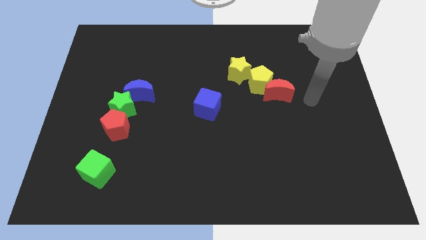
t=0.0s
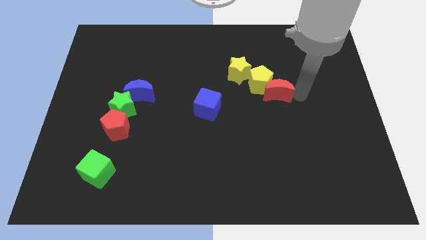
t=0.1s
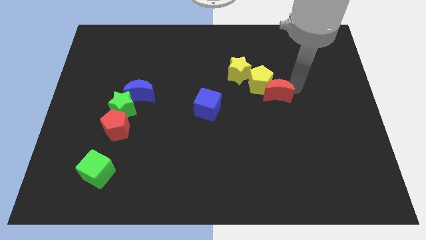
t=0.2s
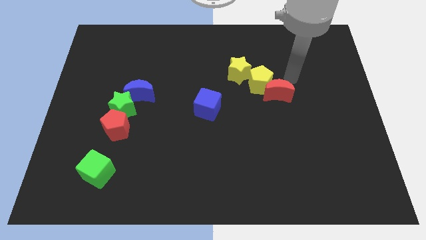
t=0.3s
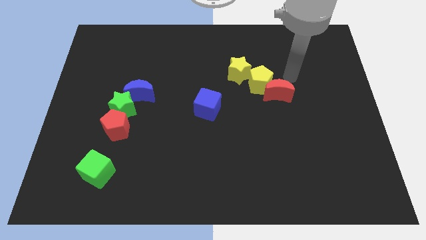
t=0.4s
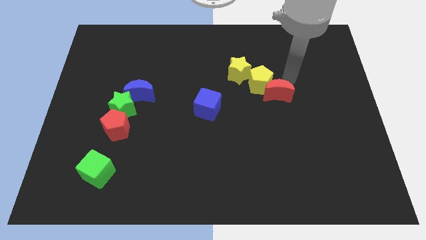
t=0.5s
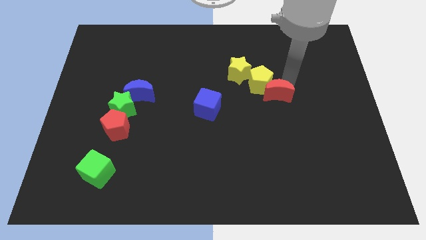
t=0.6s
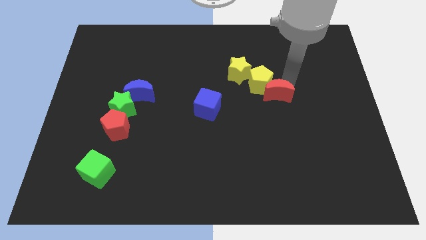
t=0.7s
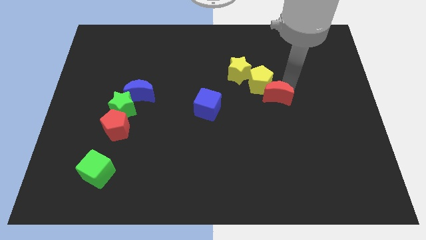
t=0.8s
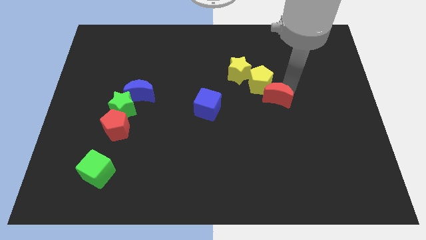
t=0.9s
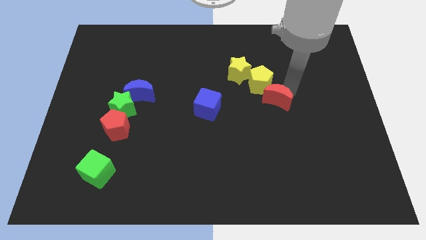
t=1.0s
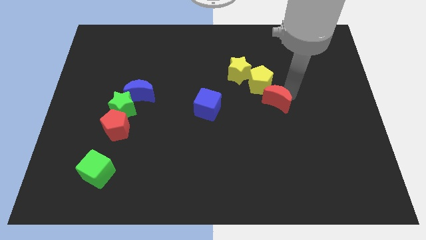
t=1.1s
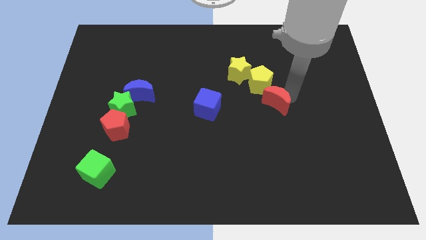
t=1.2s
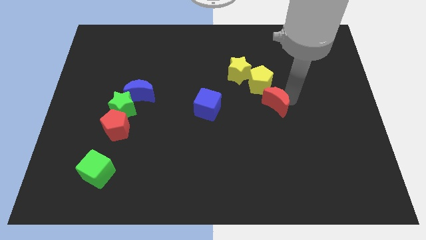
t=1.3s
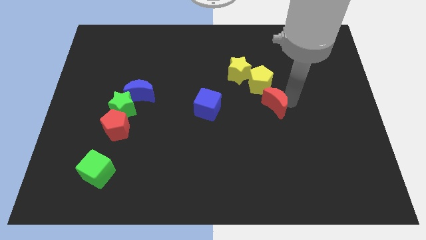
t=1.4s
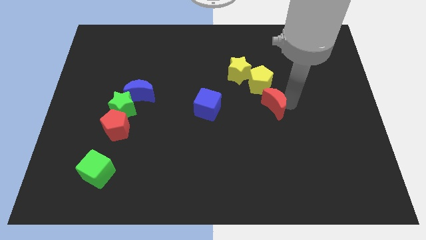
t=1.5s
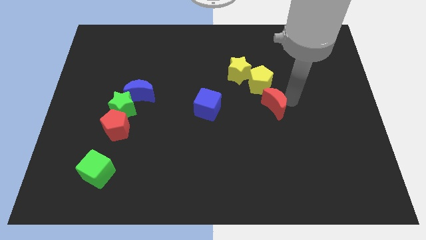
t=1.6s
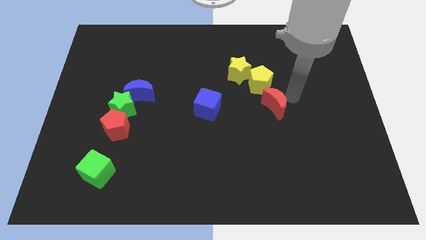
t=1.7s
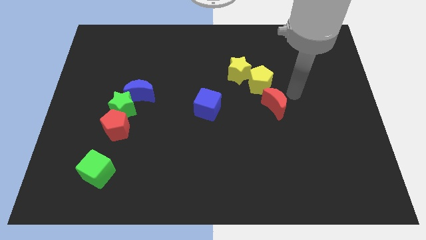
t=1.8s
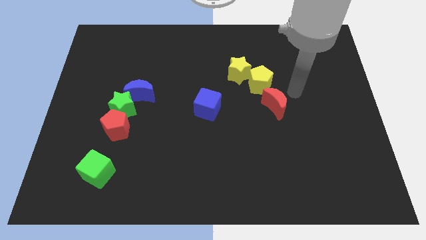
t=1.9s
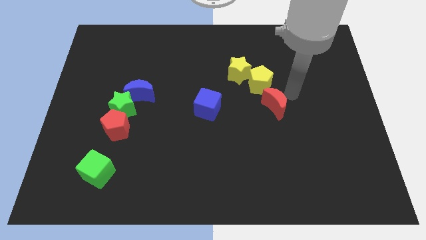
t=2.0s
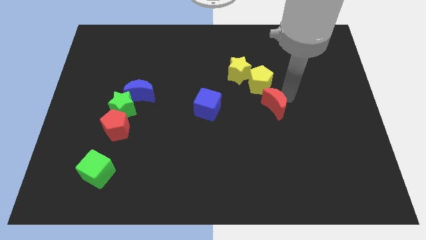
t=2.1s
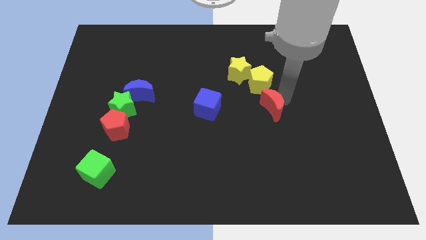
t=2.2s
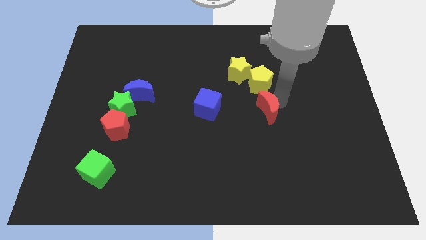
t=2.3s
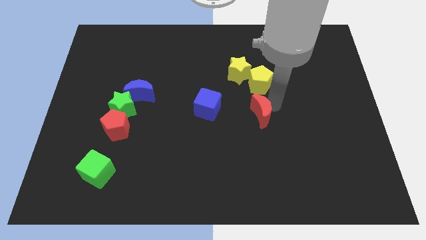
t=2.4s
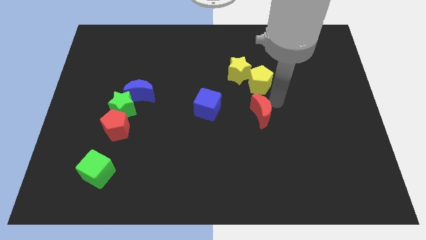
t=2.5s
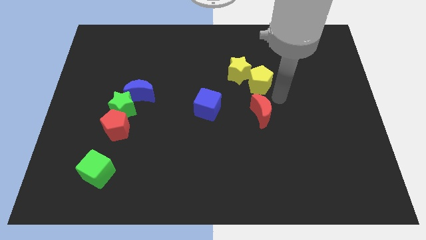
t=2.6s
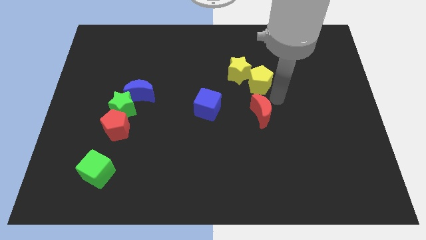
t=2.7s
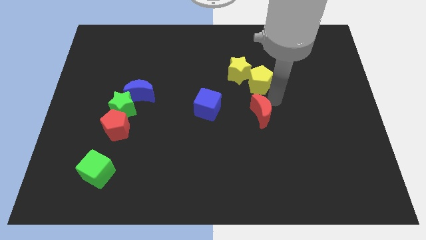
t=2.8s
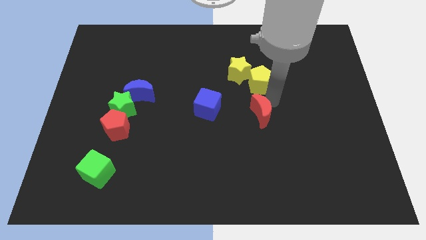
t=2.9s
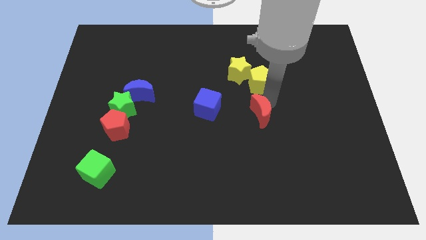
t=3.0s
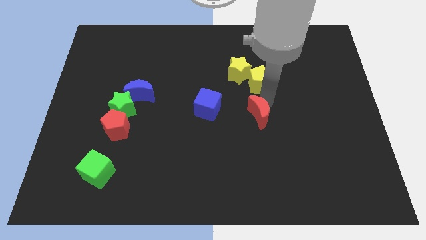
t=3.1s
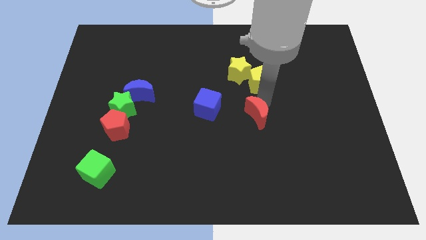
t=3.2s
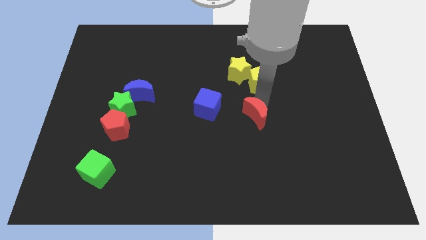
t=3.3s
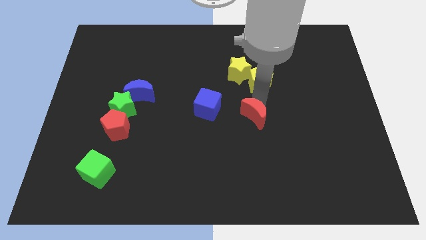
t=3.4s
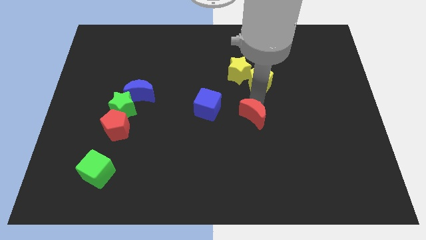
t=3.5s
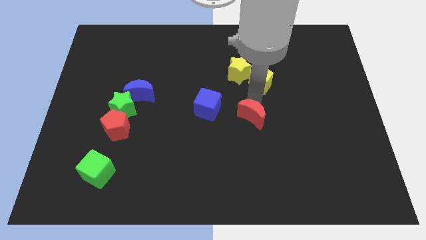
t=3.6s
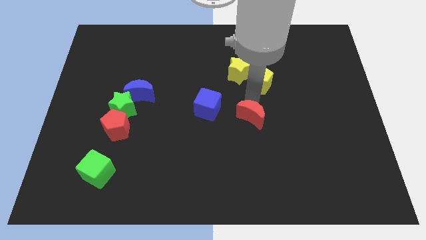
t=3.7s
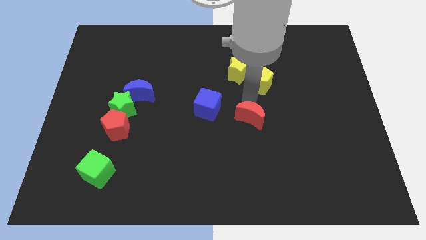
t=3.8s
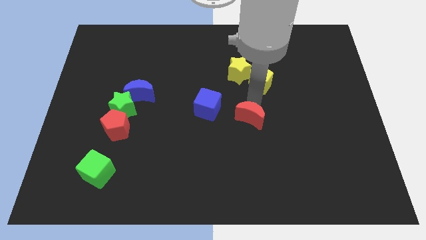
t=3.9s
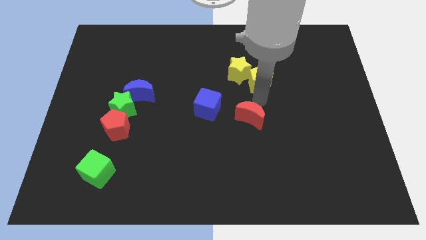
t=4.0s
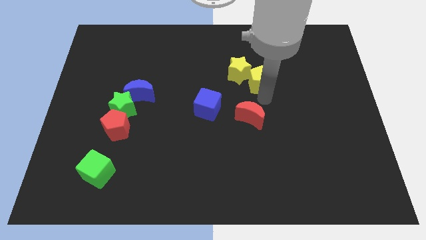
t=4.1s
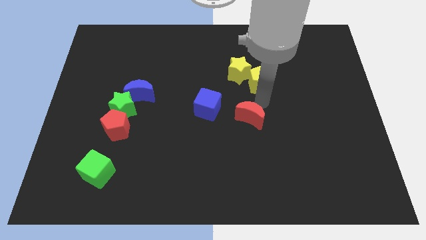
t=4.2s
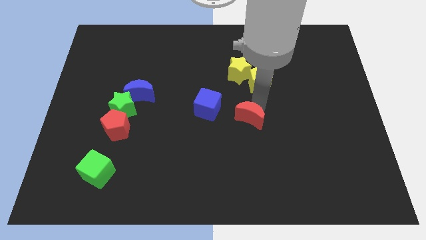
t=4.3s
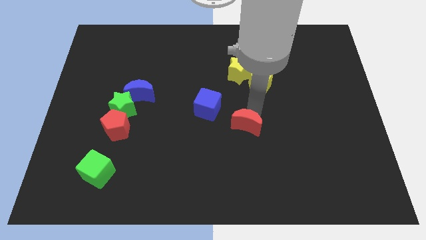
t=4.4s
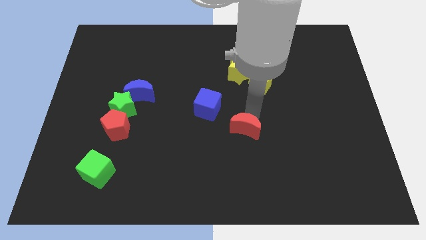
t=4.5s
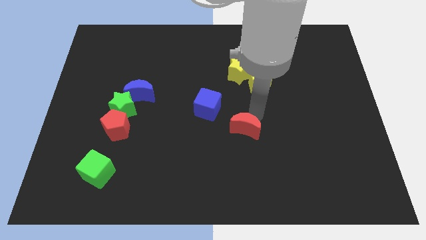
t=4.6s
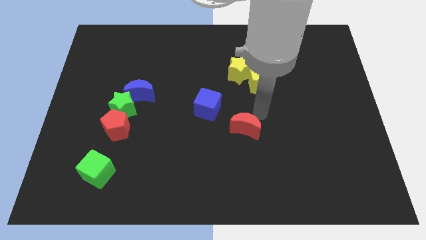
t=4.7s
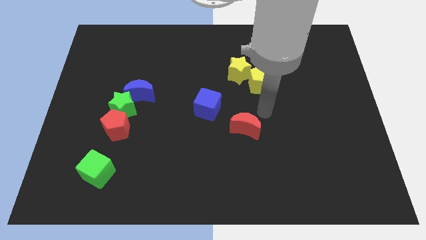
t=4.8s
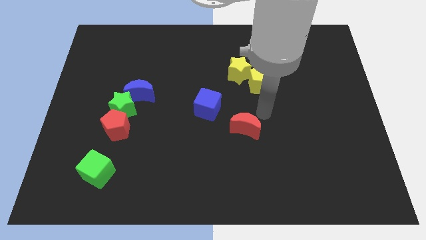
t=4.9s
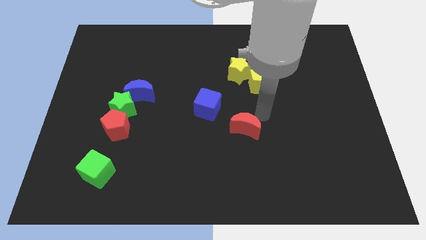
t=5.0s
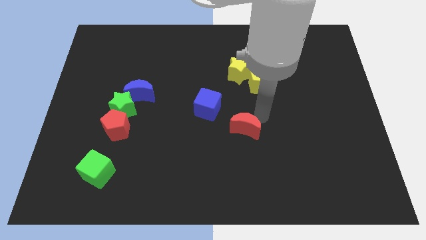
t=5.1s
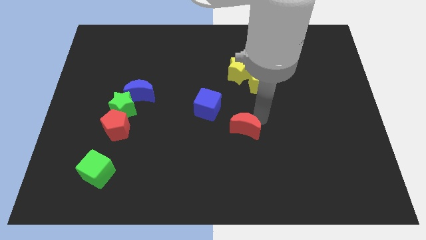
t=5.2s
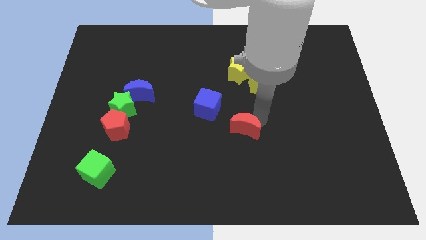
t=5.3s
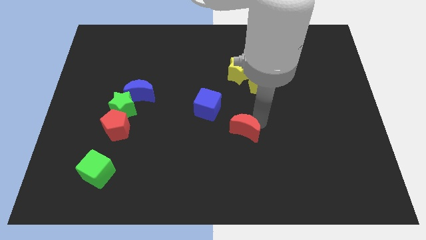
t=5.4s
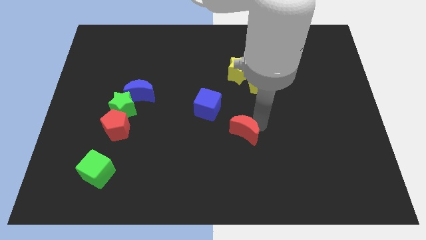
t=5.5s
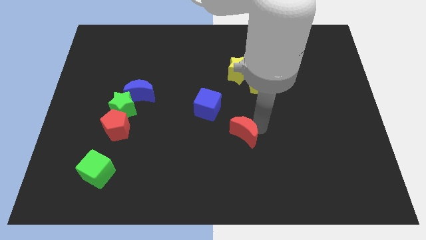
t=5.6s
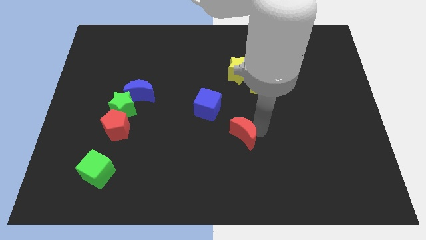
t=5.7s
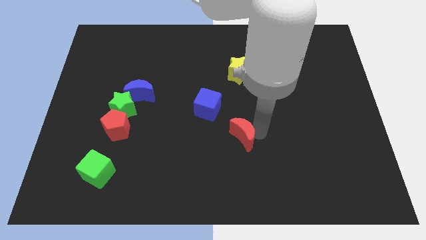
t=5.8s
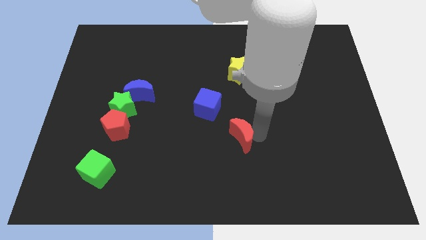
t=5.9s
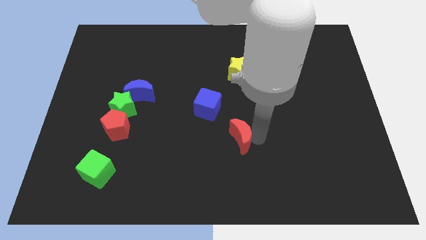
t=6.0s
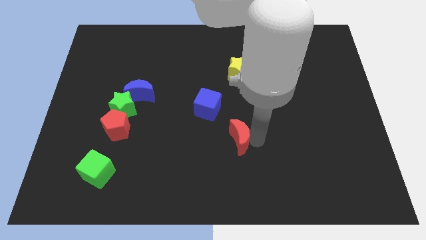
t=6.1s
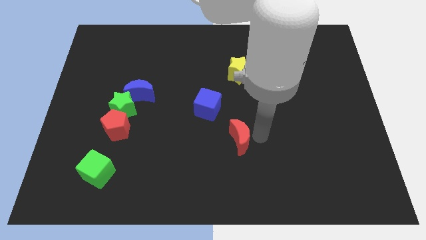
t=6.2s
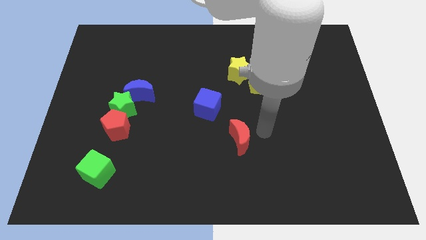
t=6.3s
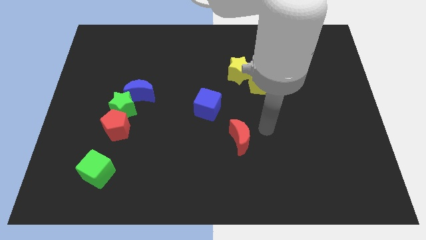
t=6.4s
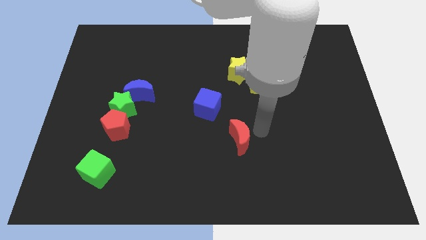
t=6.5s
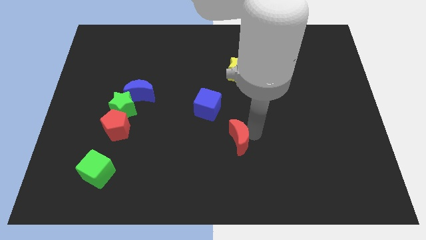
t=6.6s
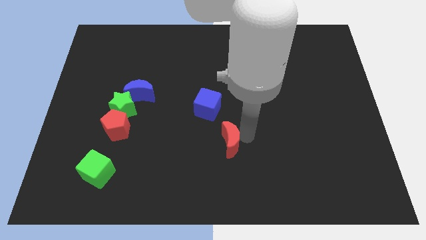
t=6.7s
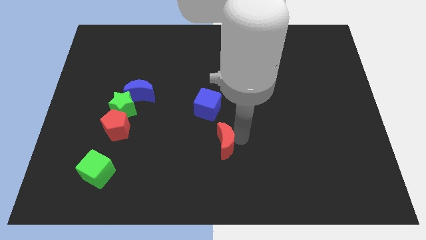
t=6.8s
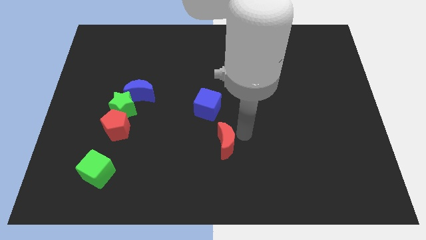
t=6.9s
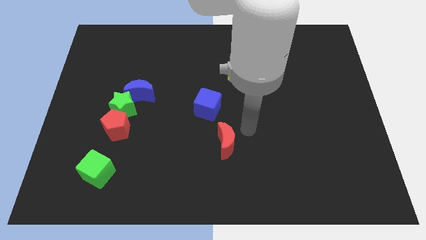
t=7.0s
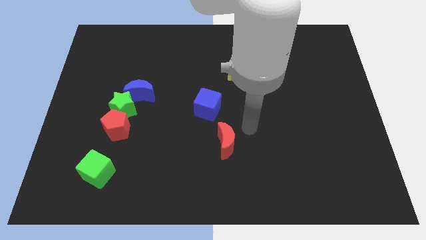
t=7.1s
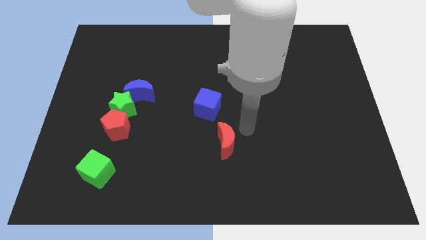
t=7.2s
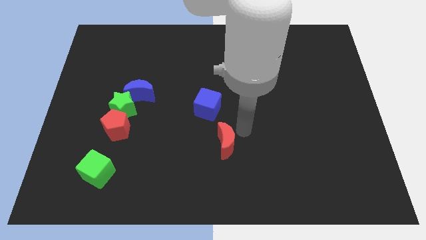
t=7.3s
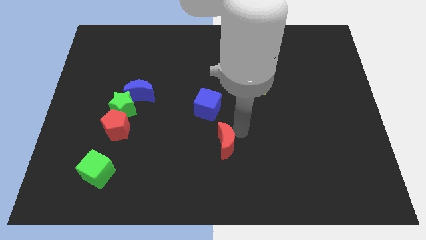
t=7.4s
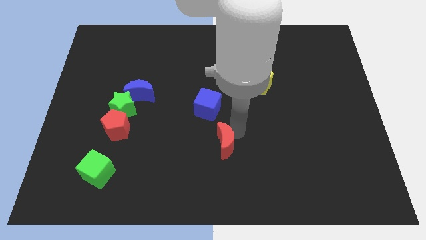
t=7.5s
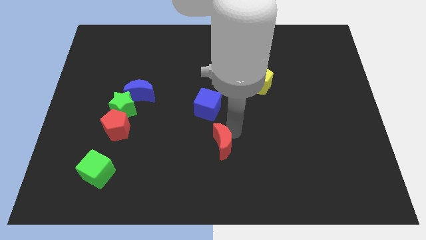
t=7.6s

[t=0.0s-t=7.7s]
move the red moon down and then left
